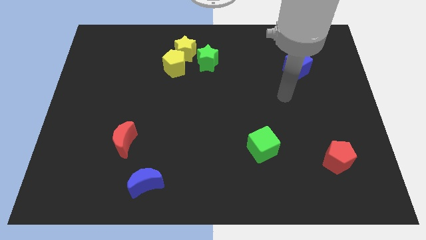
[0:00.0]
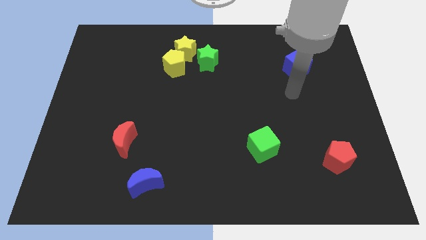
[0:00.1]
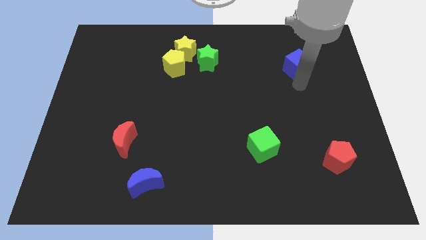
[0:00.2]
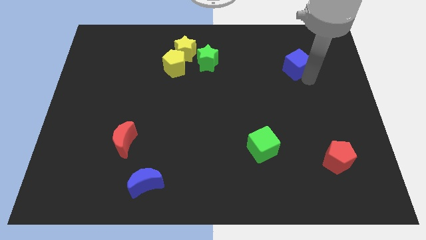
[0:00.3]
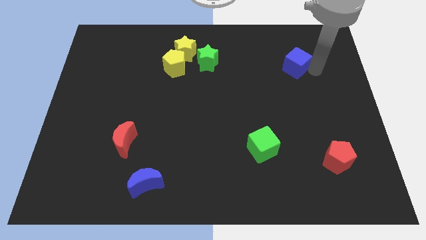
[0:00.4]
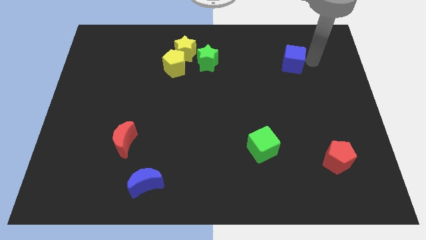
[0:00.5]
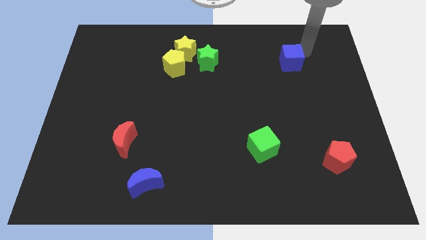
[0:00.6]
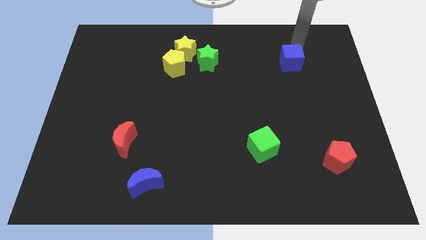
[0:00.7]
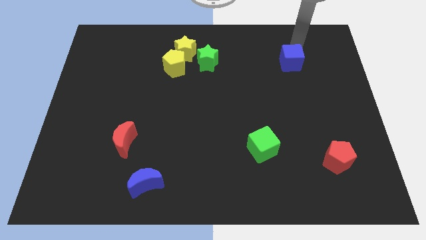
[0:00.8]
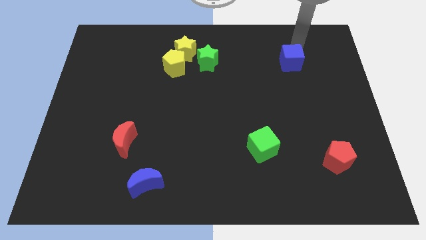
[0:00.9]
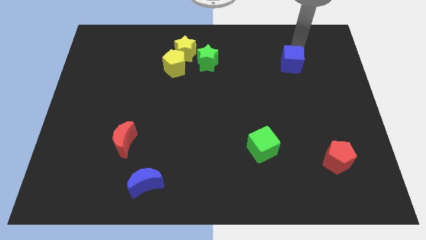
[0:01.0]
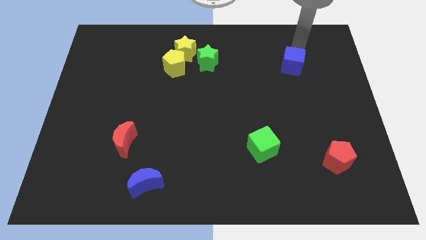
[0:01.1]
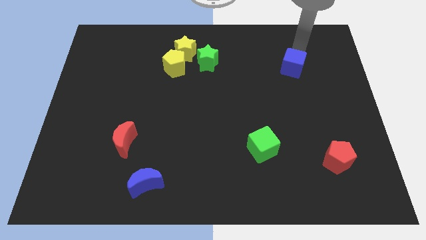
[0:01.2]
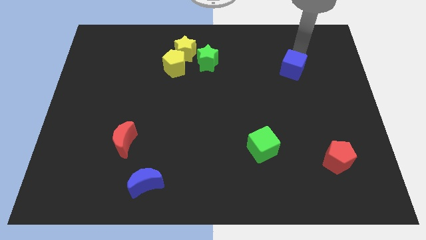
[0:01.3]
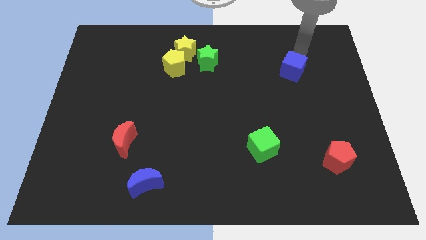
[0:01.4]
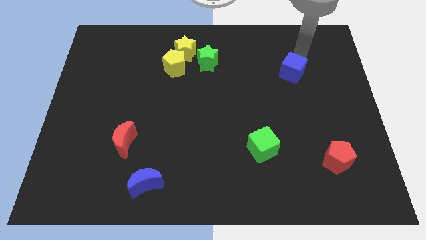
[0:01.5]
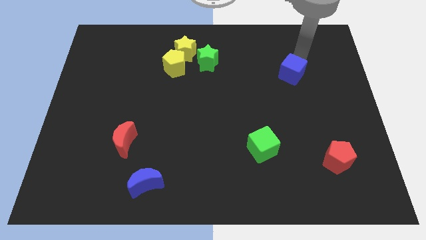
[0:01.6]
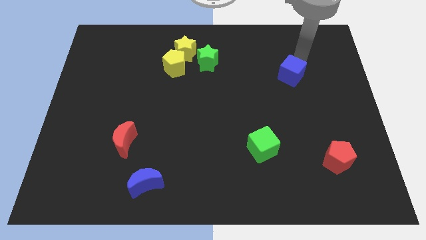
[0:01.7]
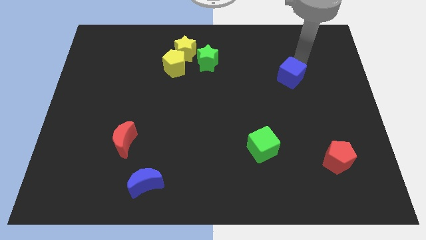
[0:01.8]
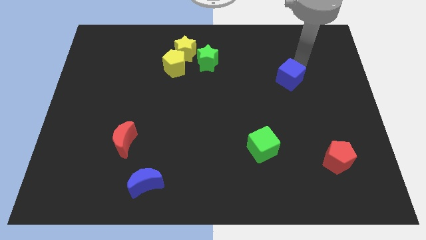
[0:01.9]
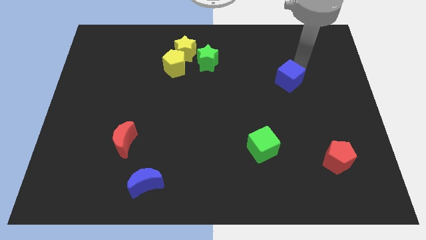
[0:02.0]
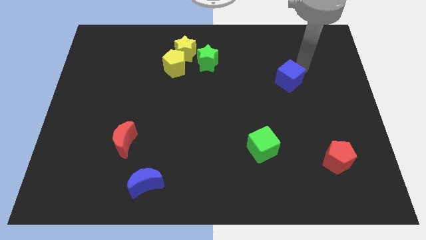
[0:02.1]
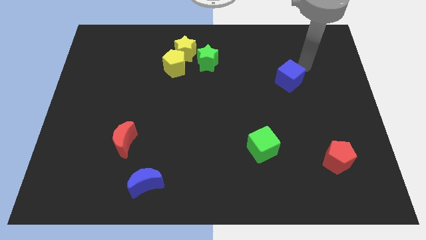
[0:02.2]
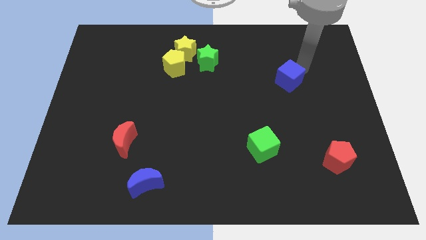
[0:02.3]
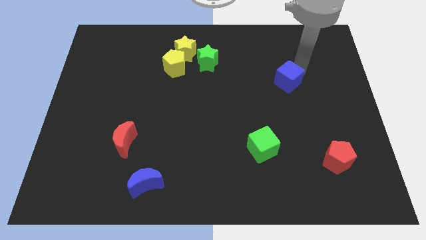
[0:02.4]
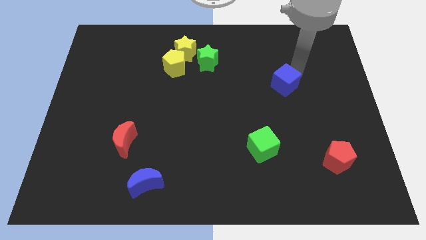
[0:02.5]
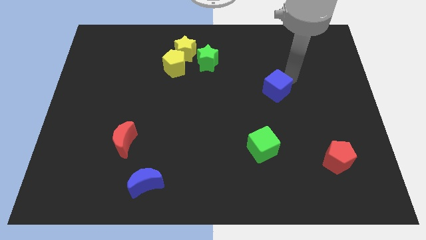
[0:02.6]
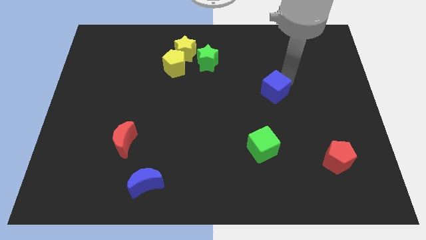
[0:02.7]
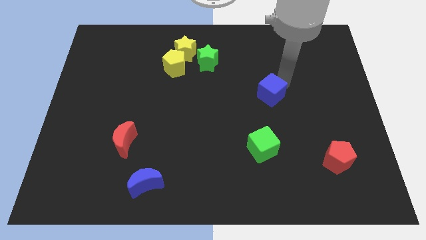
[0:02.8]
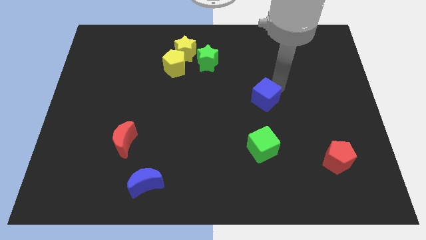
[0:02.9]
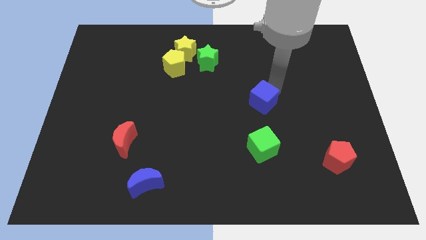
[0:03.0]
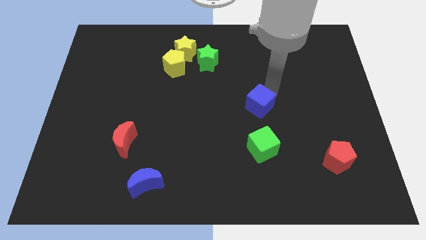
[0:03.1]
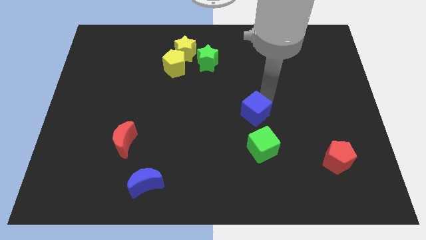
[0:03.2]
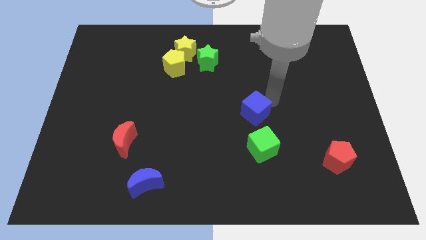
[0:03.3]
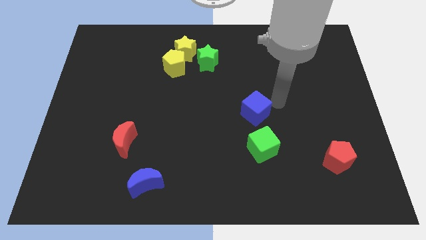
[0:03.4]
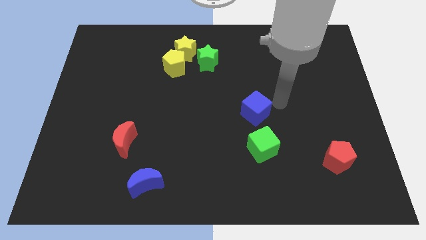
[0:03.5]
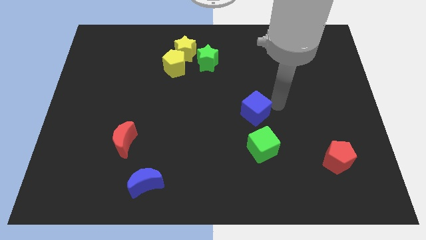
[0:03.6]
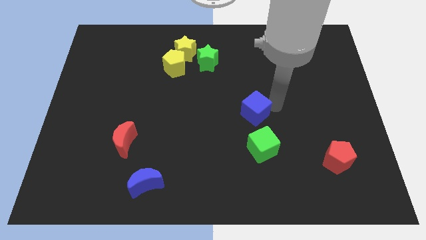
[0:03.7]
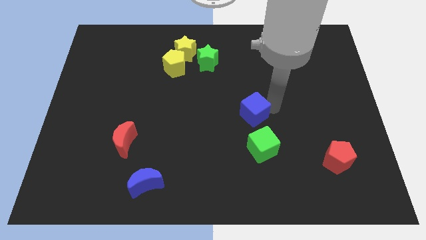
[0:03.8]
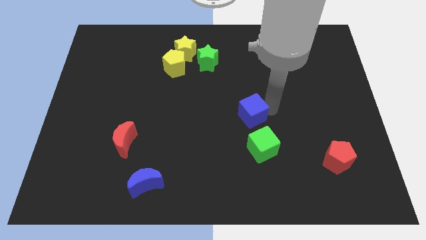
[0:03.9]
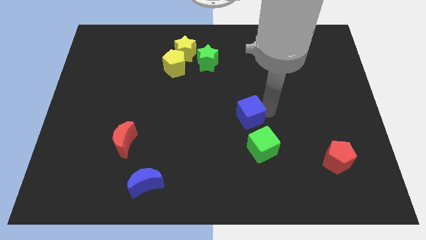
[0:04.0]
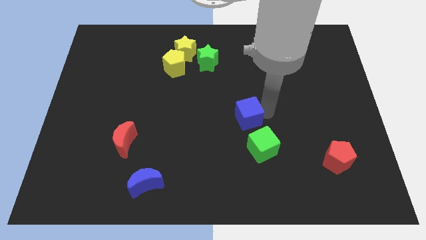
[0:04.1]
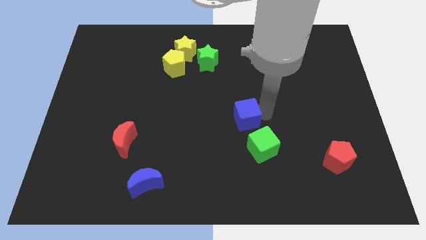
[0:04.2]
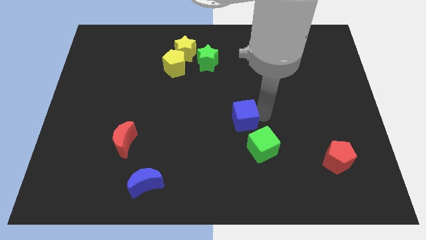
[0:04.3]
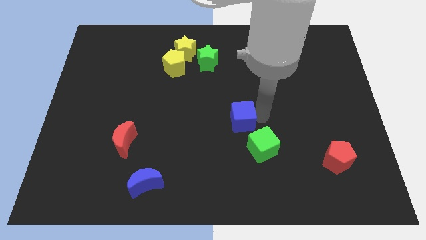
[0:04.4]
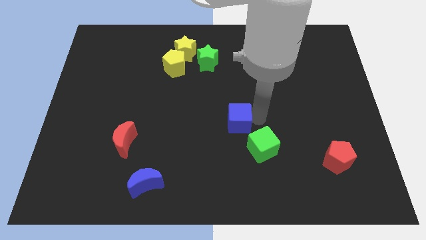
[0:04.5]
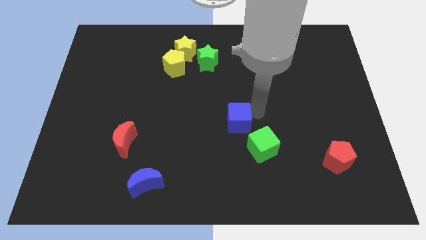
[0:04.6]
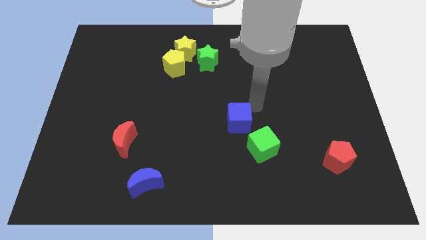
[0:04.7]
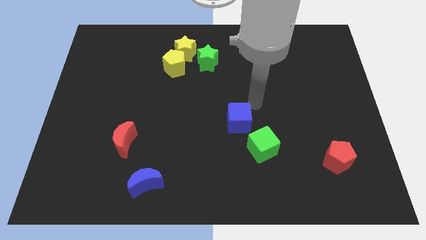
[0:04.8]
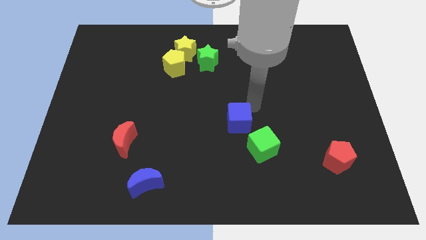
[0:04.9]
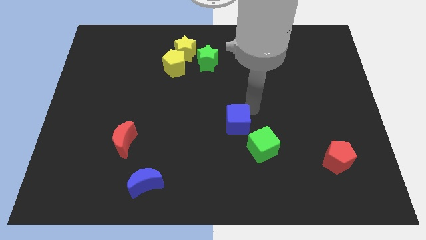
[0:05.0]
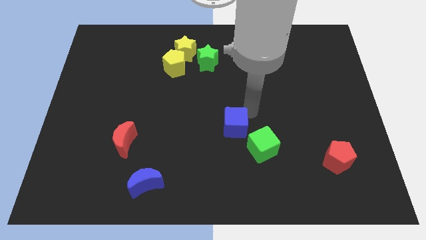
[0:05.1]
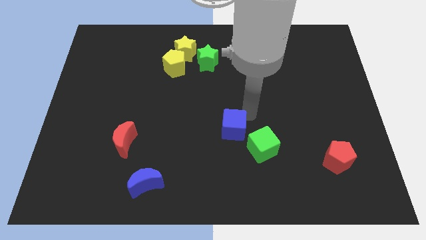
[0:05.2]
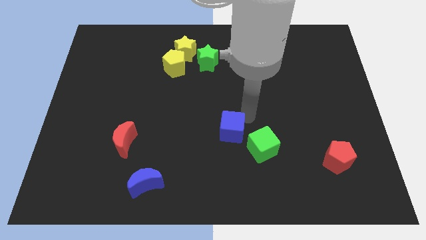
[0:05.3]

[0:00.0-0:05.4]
move the blue cube left of the green cube

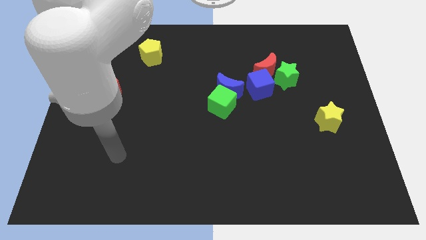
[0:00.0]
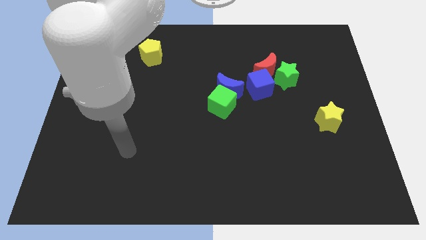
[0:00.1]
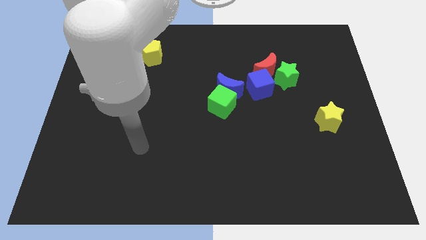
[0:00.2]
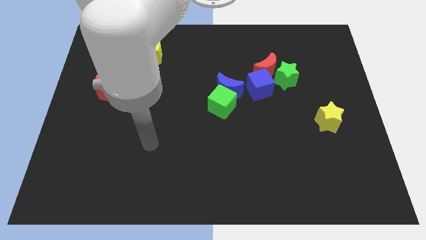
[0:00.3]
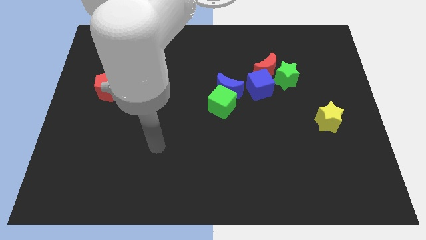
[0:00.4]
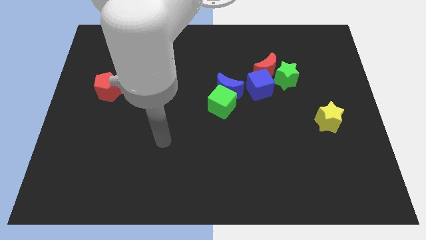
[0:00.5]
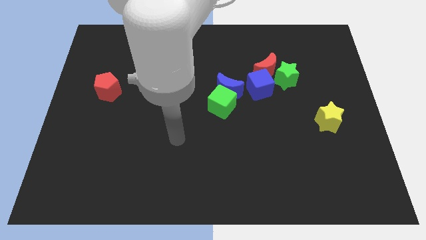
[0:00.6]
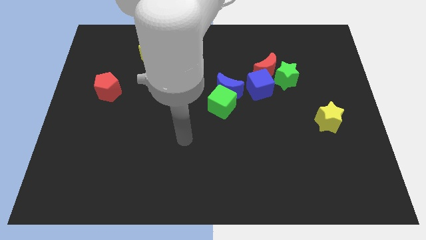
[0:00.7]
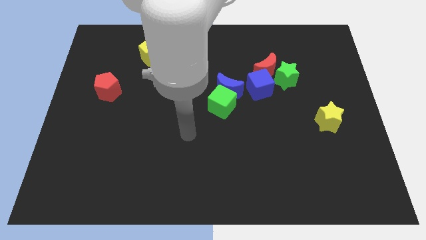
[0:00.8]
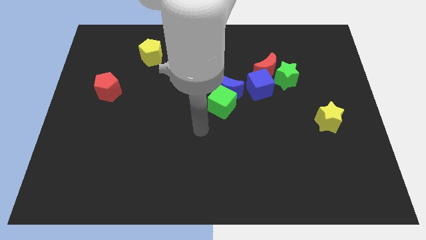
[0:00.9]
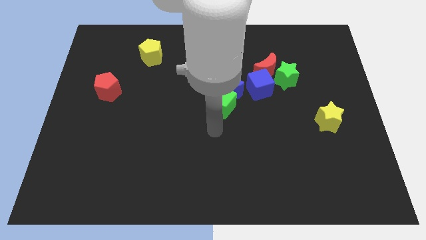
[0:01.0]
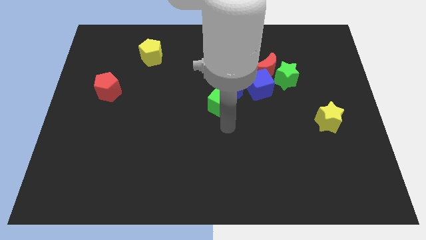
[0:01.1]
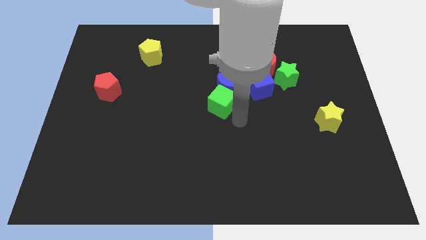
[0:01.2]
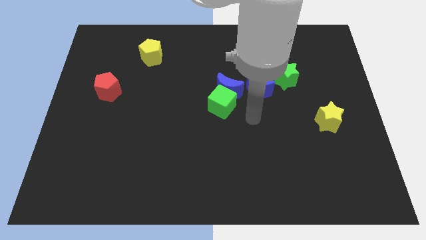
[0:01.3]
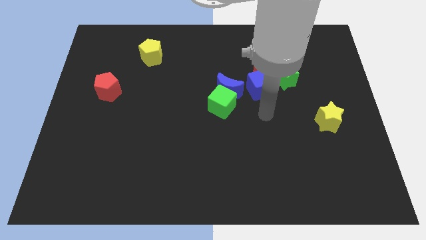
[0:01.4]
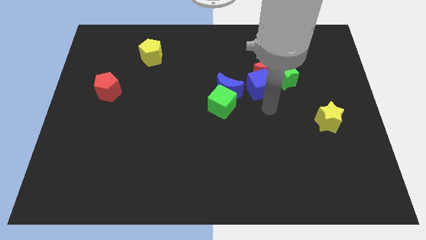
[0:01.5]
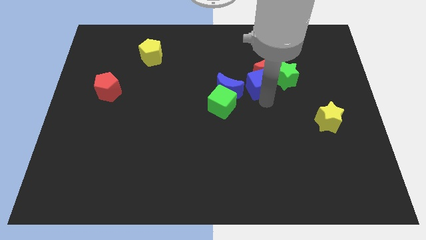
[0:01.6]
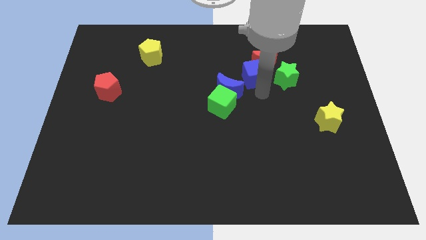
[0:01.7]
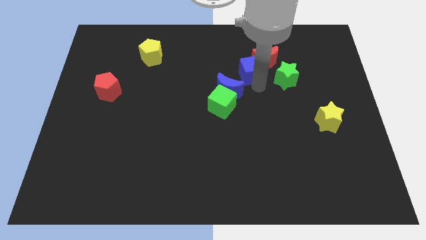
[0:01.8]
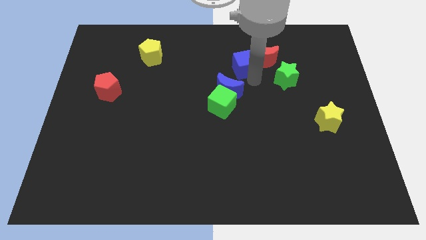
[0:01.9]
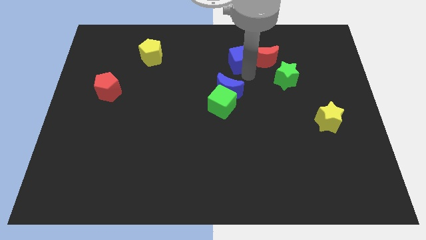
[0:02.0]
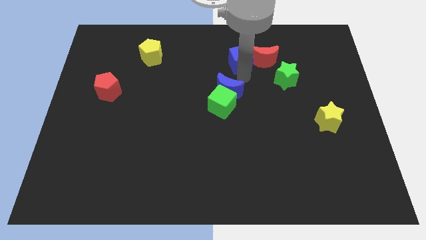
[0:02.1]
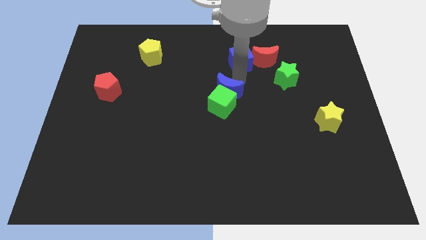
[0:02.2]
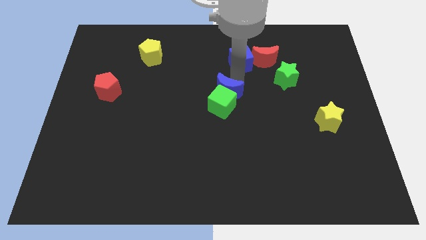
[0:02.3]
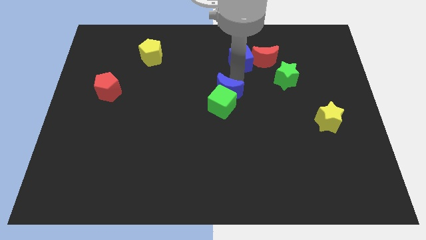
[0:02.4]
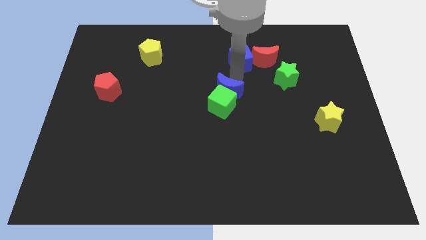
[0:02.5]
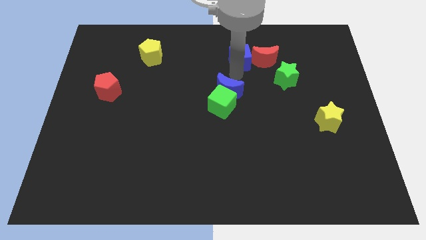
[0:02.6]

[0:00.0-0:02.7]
slide the blue cube to the top left of the red moon
